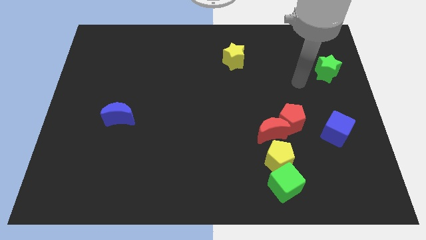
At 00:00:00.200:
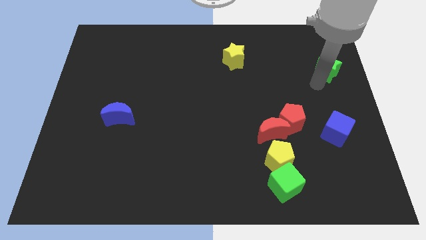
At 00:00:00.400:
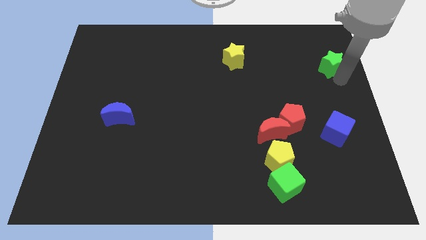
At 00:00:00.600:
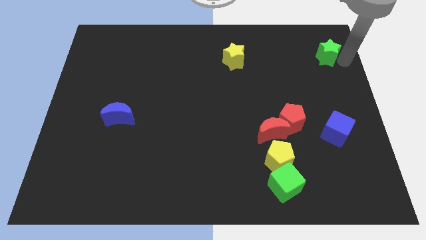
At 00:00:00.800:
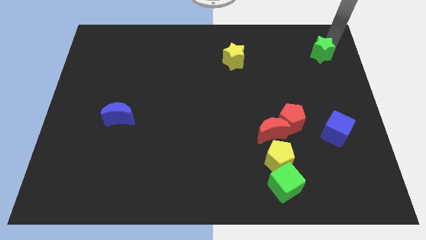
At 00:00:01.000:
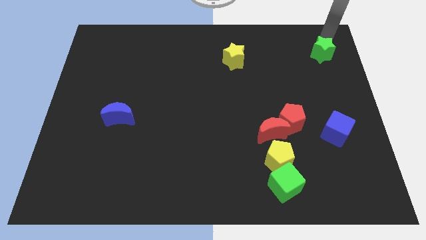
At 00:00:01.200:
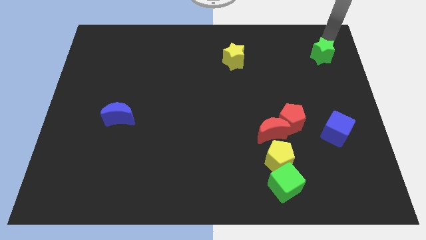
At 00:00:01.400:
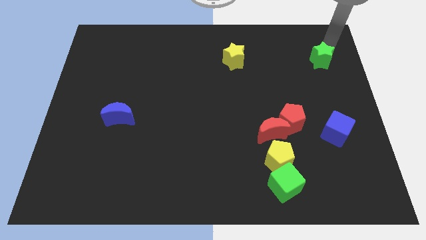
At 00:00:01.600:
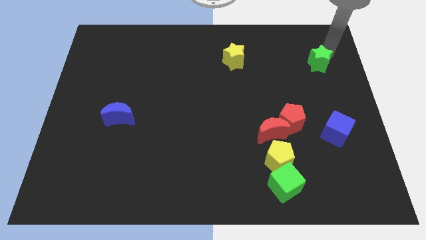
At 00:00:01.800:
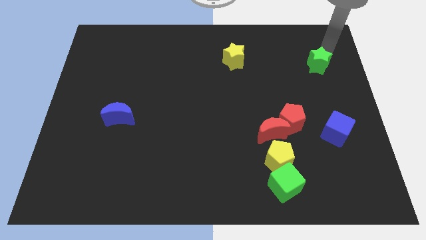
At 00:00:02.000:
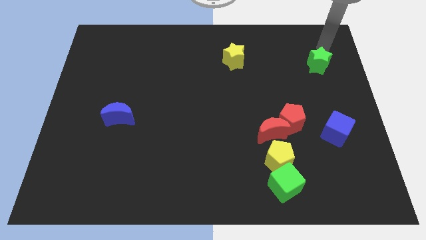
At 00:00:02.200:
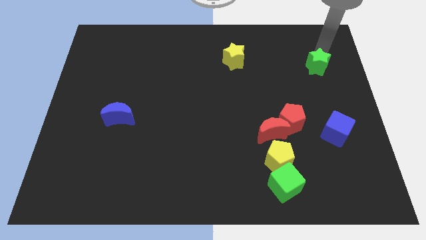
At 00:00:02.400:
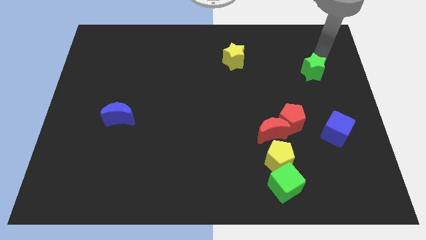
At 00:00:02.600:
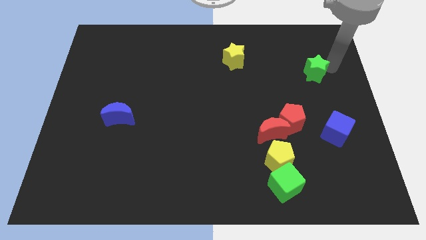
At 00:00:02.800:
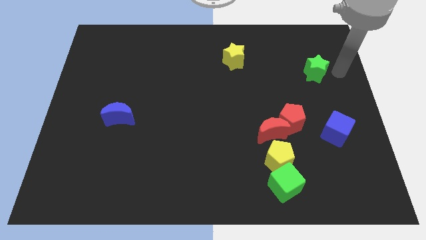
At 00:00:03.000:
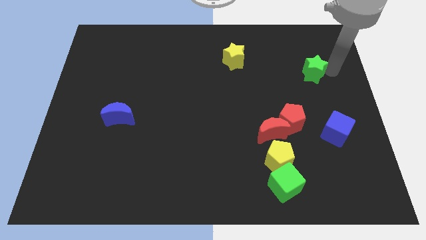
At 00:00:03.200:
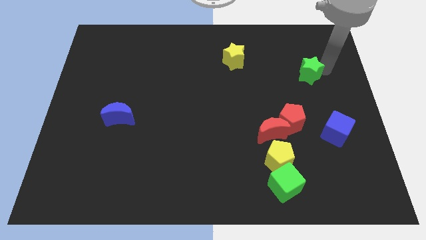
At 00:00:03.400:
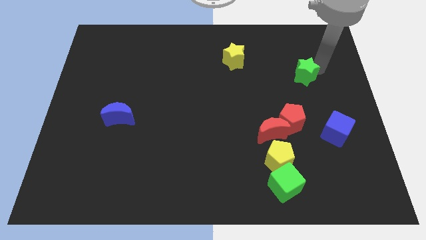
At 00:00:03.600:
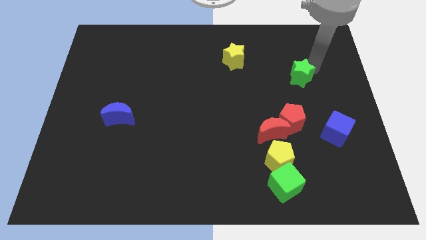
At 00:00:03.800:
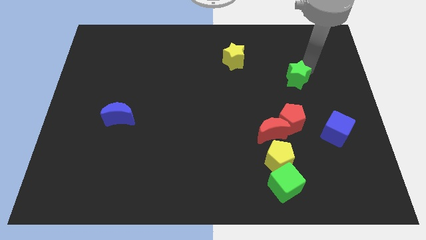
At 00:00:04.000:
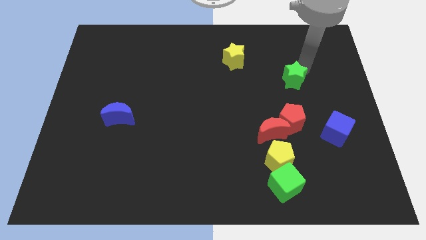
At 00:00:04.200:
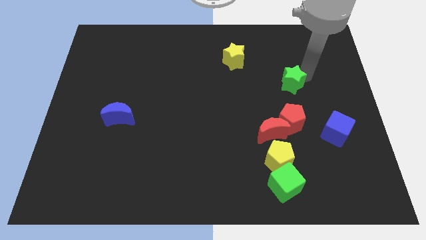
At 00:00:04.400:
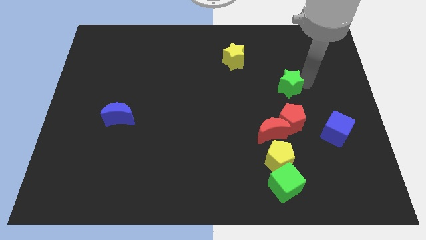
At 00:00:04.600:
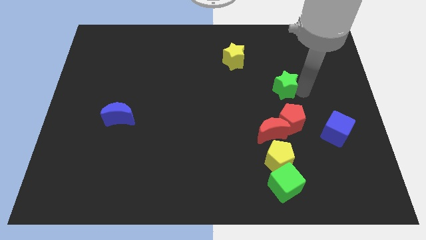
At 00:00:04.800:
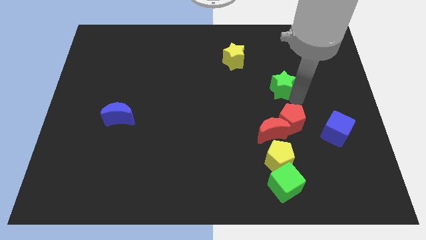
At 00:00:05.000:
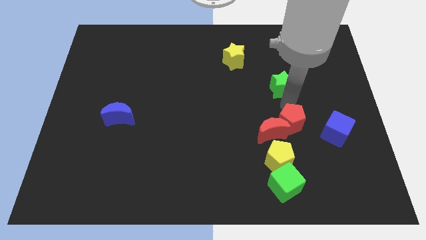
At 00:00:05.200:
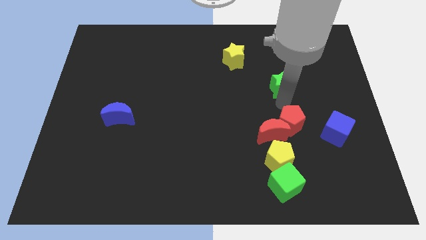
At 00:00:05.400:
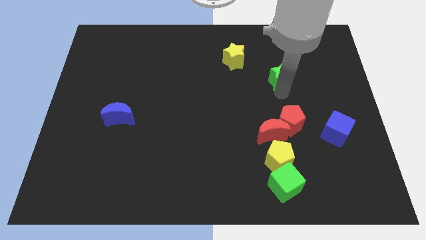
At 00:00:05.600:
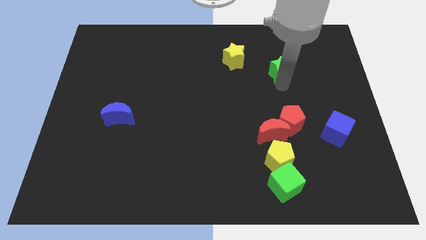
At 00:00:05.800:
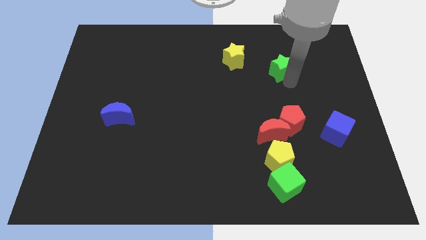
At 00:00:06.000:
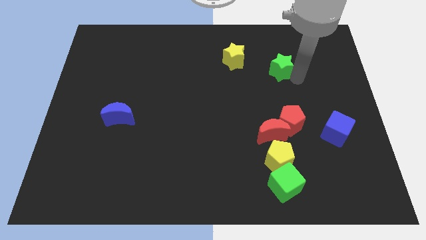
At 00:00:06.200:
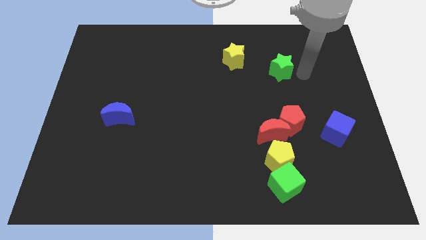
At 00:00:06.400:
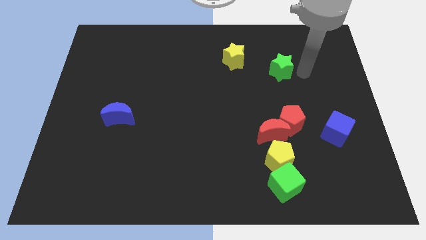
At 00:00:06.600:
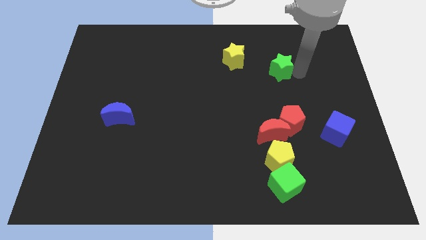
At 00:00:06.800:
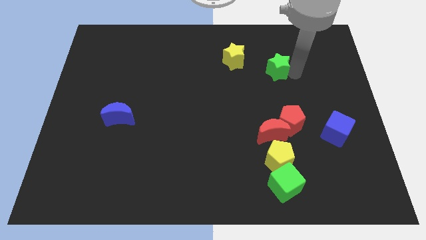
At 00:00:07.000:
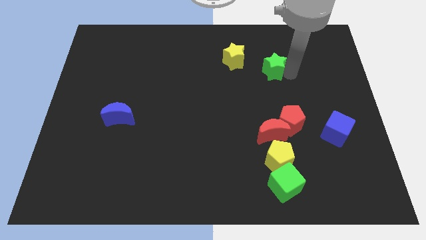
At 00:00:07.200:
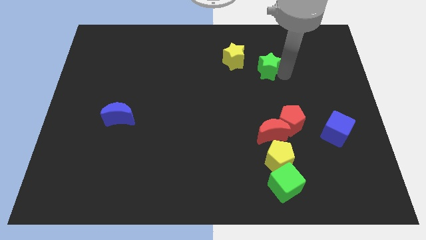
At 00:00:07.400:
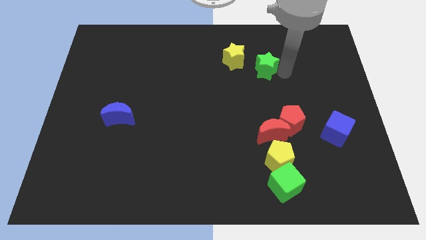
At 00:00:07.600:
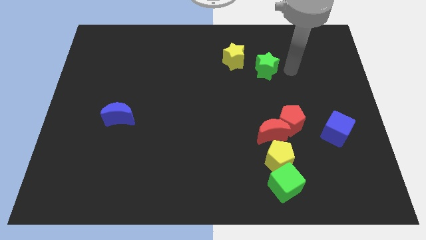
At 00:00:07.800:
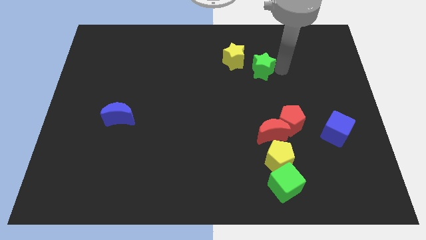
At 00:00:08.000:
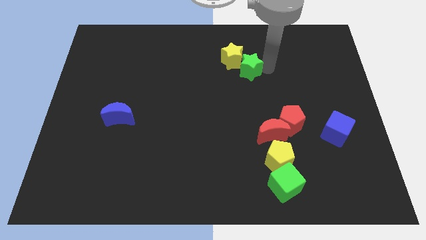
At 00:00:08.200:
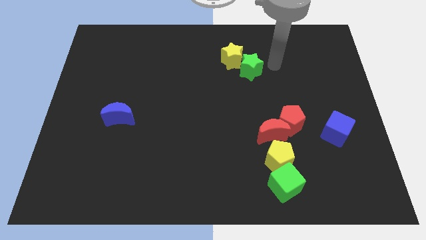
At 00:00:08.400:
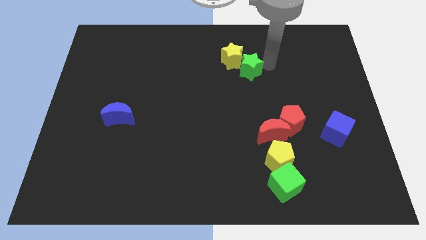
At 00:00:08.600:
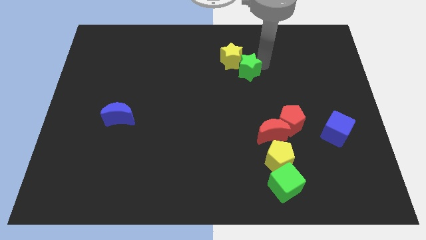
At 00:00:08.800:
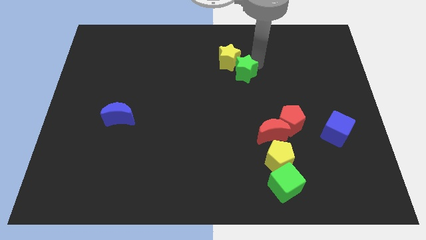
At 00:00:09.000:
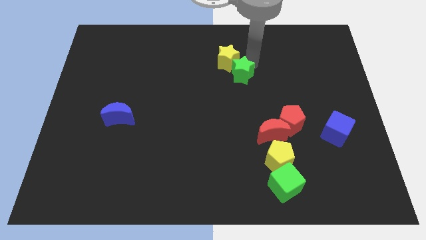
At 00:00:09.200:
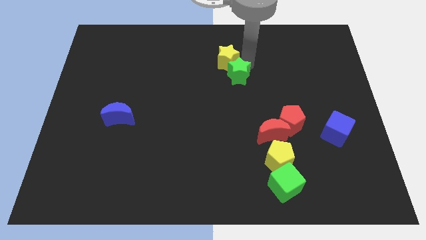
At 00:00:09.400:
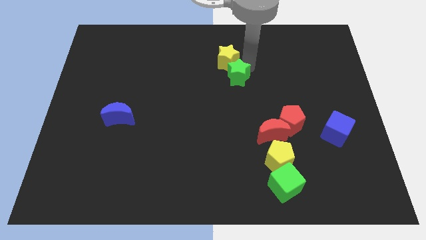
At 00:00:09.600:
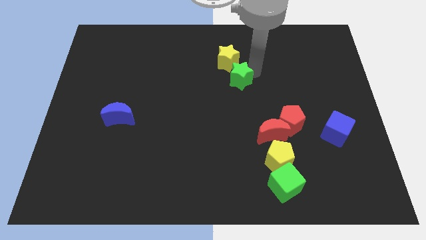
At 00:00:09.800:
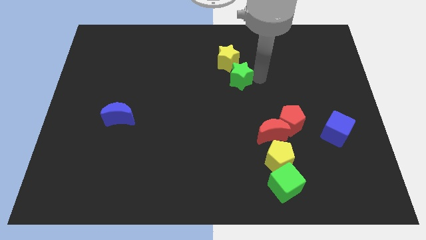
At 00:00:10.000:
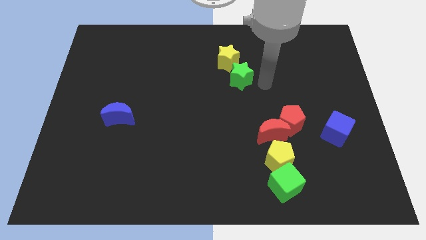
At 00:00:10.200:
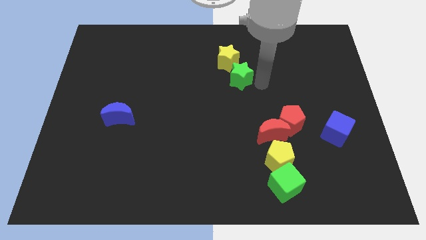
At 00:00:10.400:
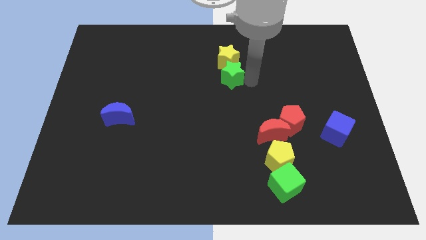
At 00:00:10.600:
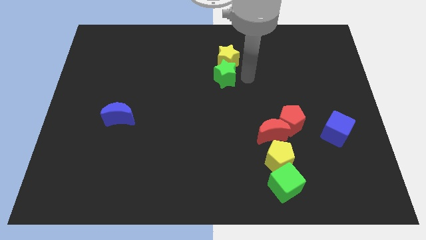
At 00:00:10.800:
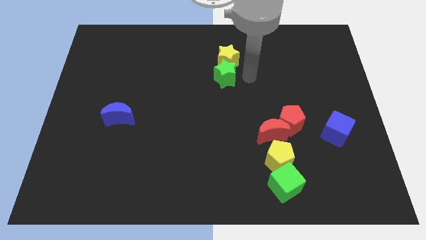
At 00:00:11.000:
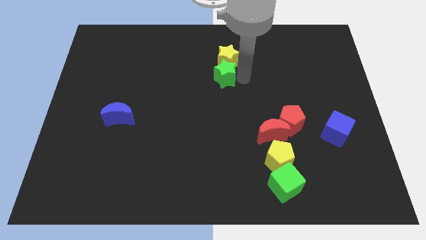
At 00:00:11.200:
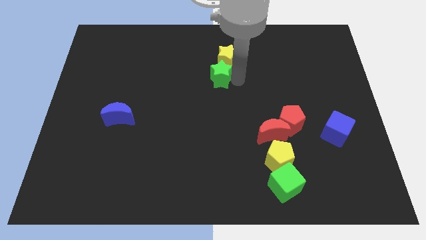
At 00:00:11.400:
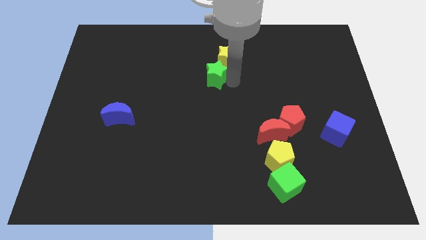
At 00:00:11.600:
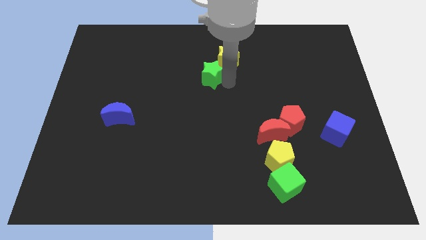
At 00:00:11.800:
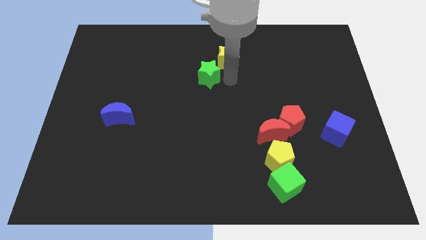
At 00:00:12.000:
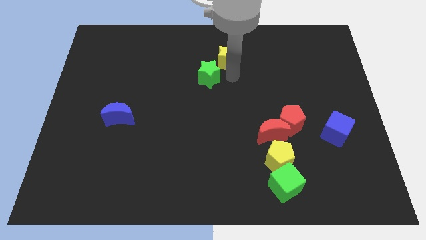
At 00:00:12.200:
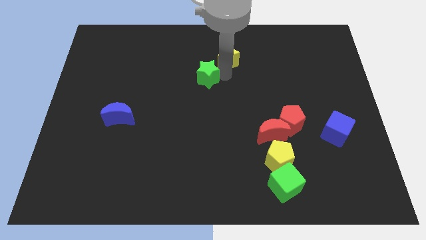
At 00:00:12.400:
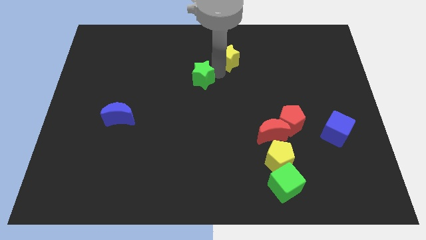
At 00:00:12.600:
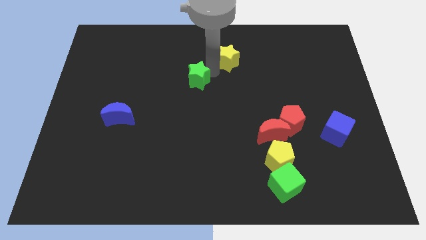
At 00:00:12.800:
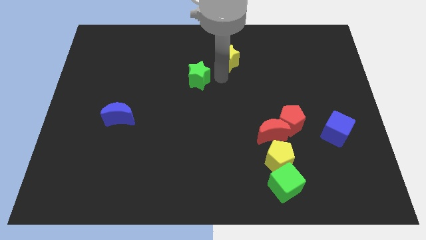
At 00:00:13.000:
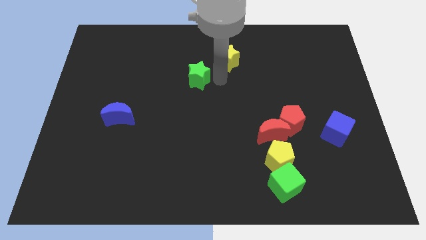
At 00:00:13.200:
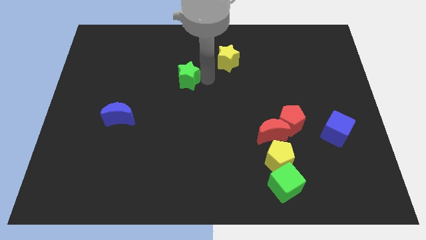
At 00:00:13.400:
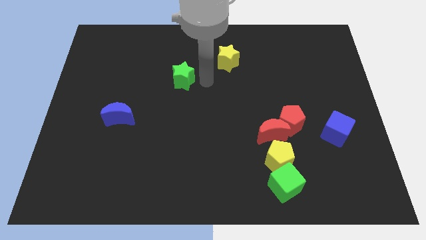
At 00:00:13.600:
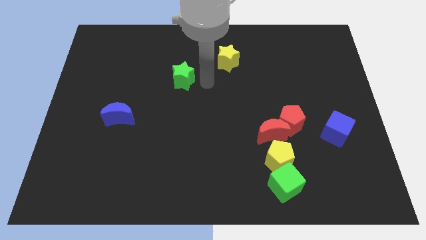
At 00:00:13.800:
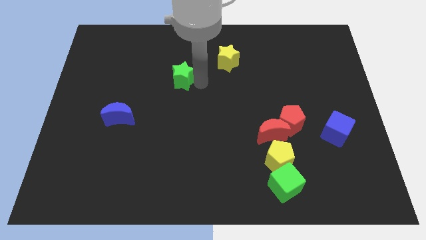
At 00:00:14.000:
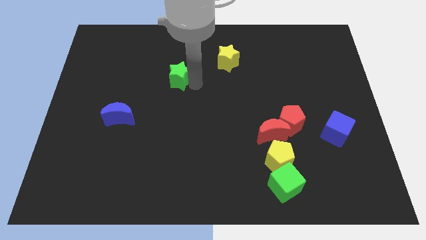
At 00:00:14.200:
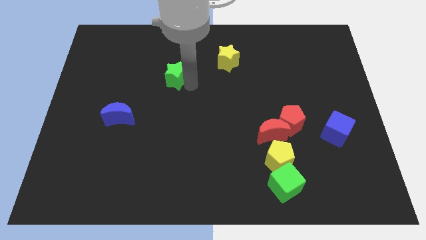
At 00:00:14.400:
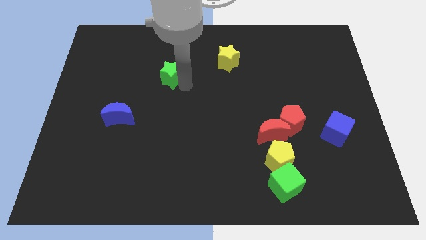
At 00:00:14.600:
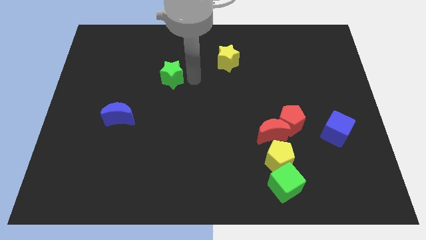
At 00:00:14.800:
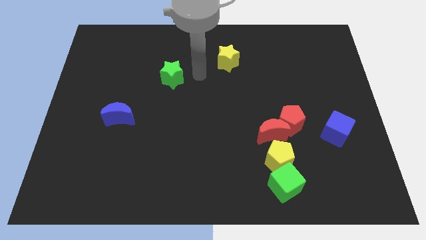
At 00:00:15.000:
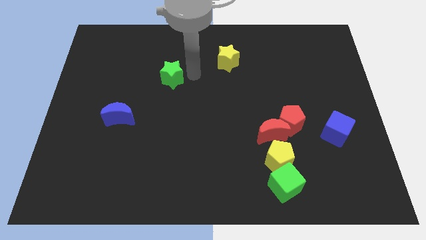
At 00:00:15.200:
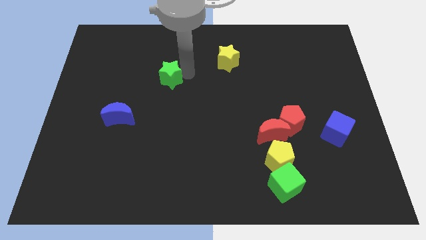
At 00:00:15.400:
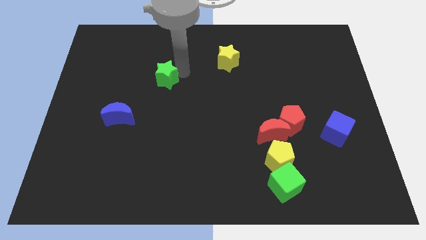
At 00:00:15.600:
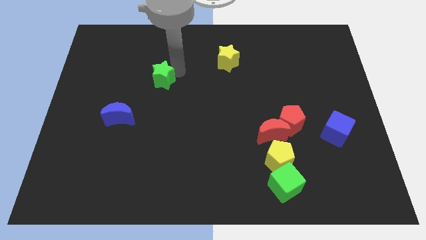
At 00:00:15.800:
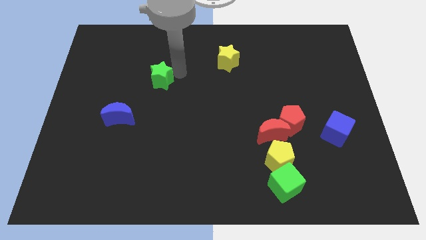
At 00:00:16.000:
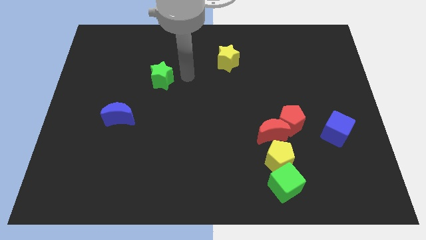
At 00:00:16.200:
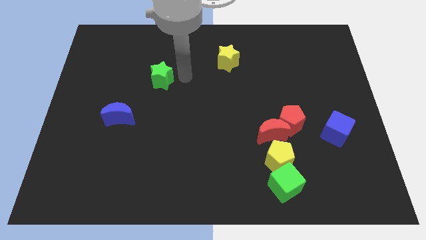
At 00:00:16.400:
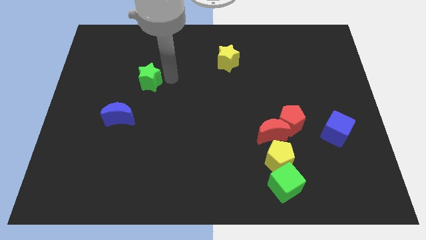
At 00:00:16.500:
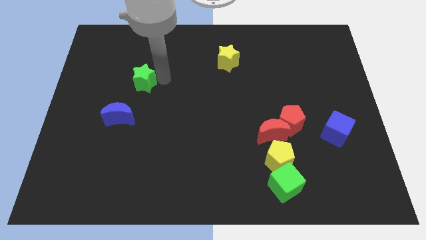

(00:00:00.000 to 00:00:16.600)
put the green star to the top of the blue moon
